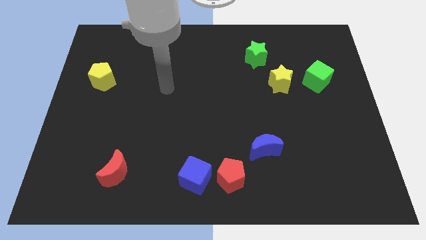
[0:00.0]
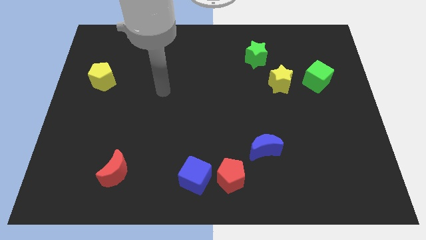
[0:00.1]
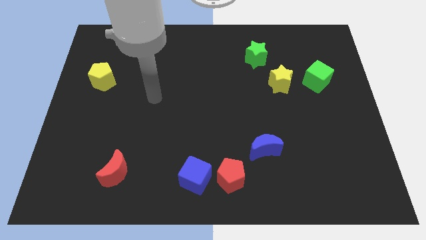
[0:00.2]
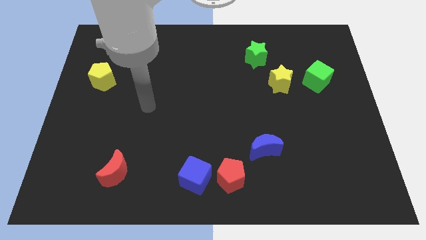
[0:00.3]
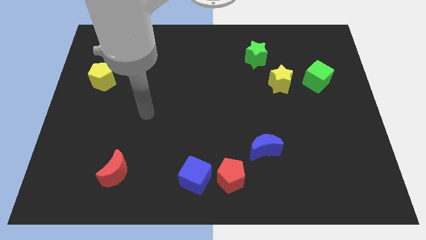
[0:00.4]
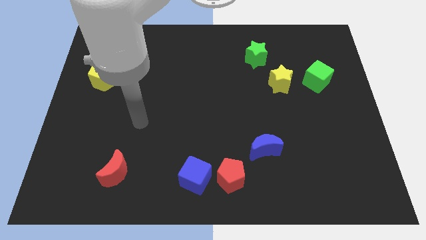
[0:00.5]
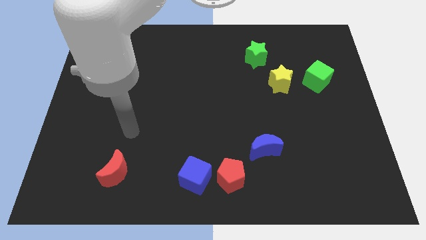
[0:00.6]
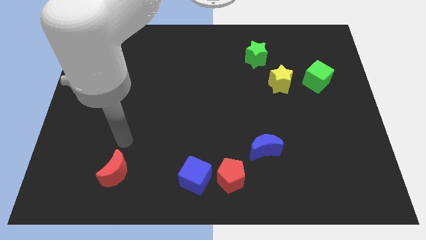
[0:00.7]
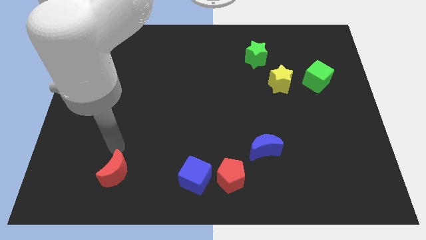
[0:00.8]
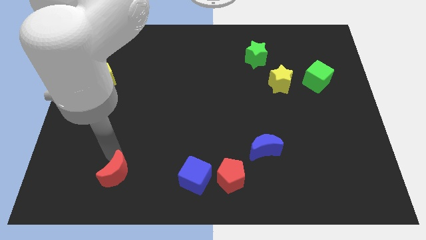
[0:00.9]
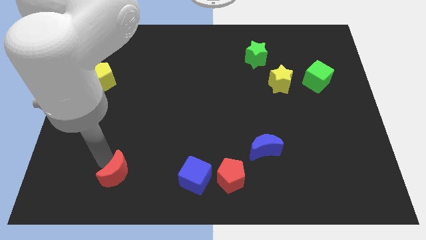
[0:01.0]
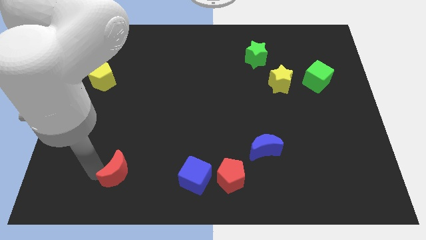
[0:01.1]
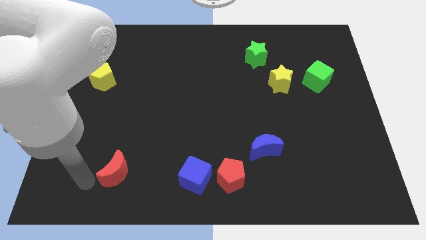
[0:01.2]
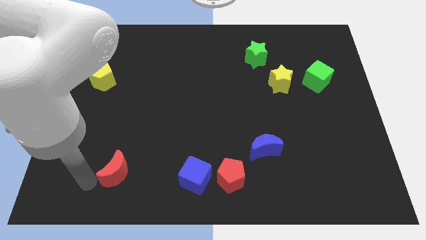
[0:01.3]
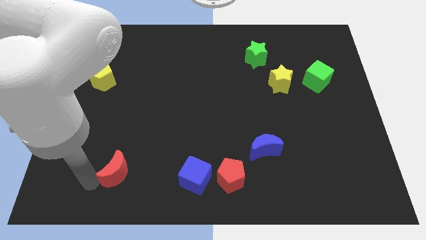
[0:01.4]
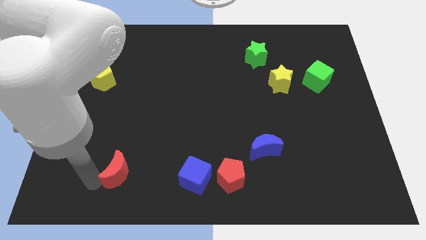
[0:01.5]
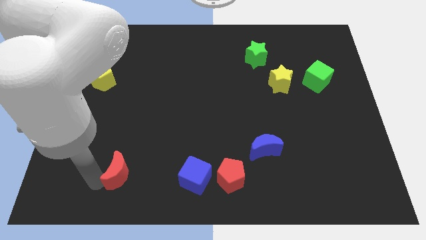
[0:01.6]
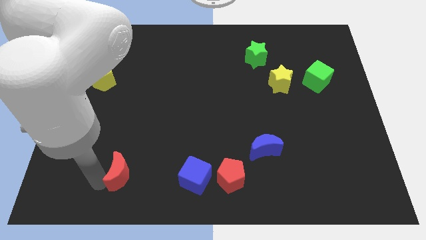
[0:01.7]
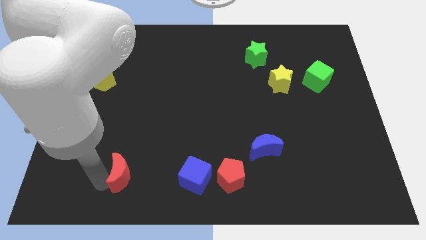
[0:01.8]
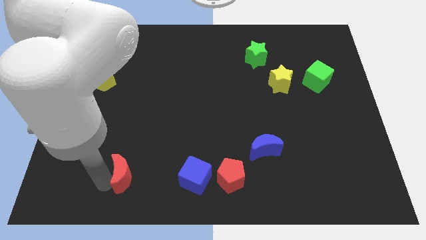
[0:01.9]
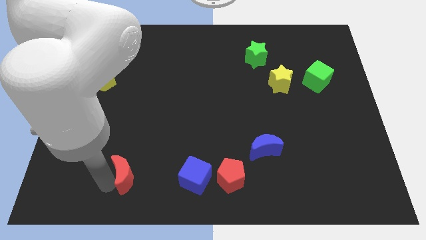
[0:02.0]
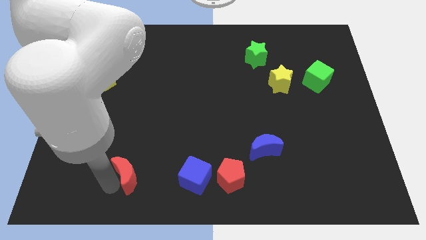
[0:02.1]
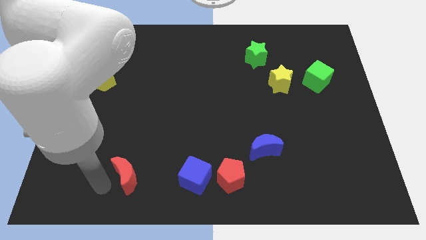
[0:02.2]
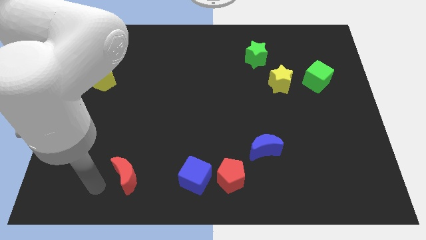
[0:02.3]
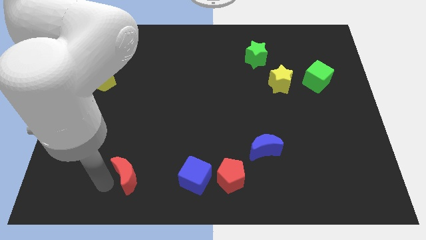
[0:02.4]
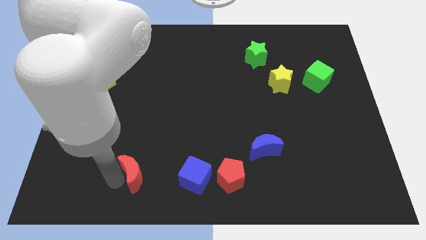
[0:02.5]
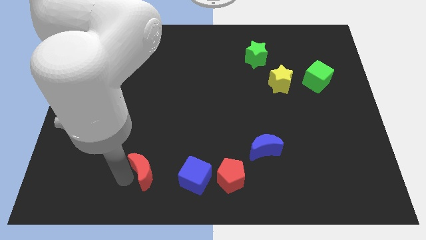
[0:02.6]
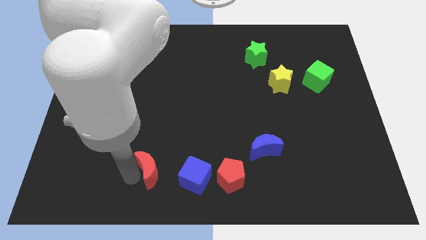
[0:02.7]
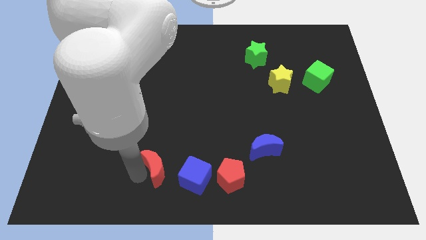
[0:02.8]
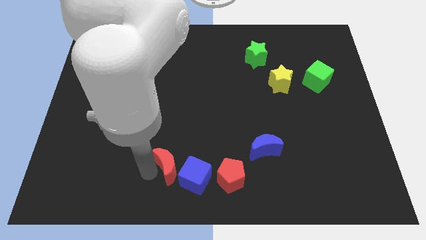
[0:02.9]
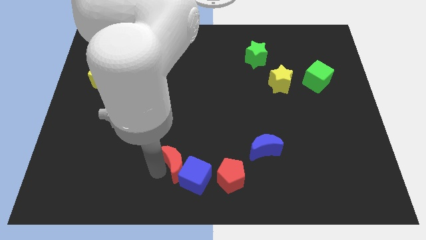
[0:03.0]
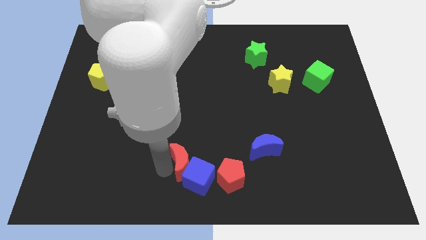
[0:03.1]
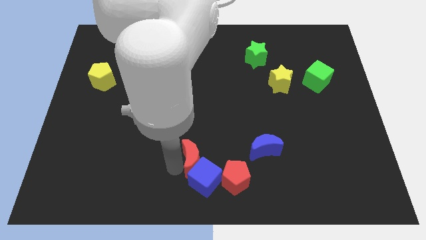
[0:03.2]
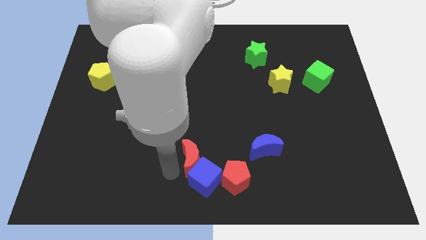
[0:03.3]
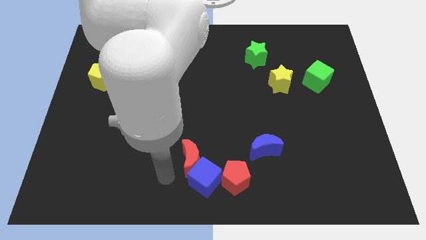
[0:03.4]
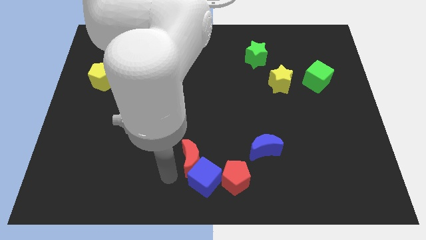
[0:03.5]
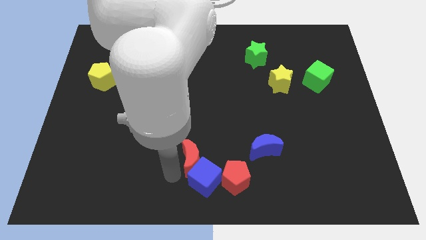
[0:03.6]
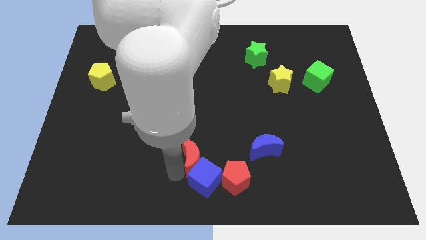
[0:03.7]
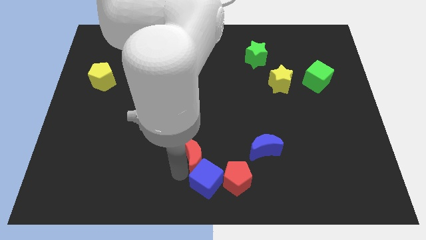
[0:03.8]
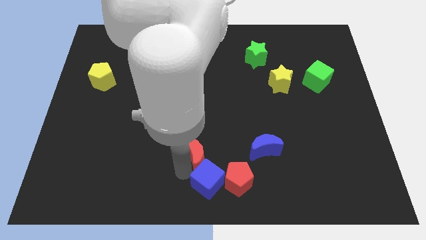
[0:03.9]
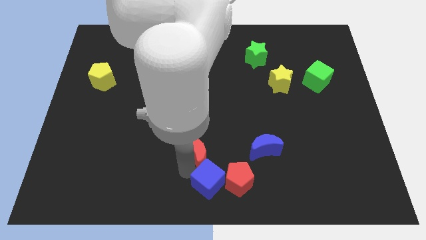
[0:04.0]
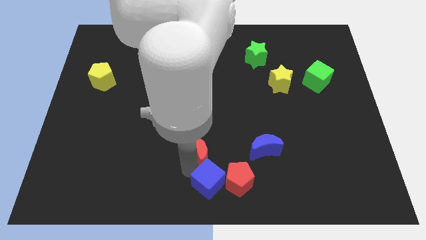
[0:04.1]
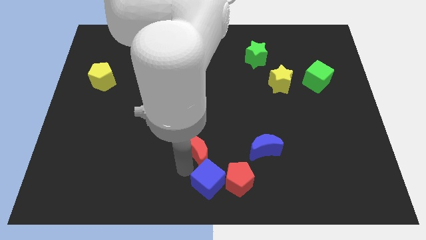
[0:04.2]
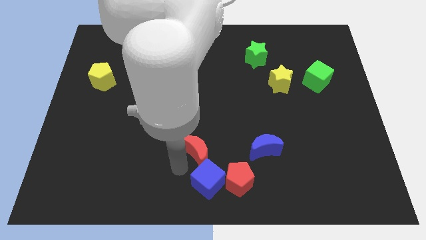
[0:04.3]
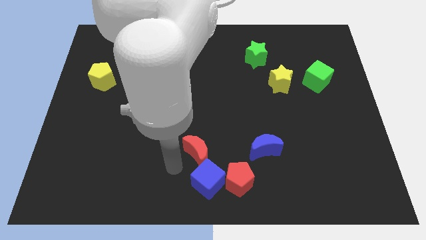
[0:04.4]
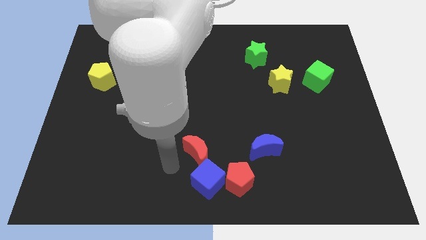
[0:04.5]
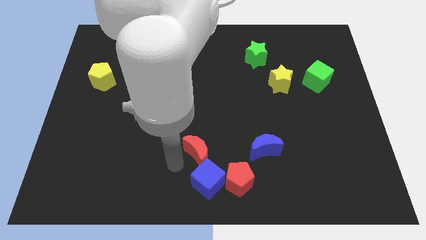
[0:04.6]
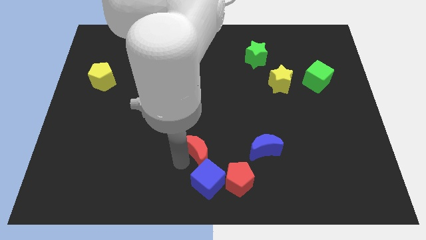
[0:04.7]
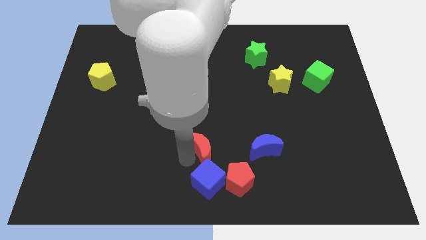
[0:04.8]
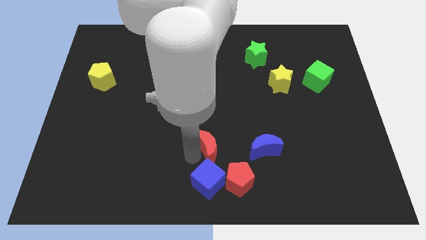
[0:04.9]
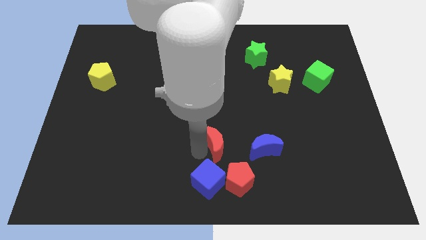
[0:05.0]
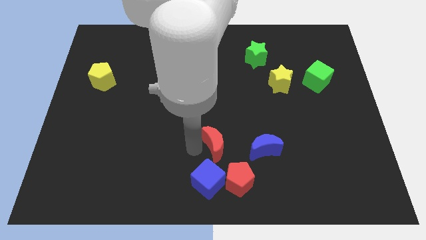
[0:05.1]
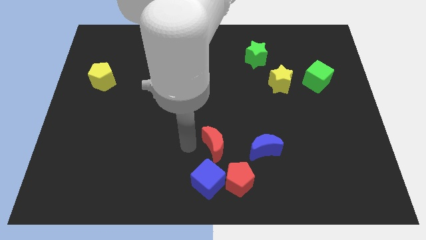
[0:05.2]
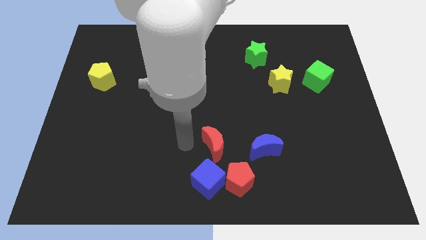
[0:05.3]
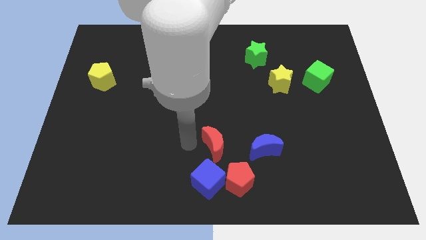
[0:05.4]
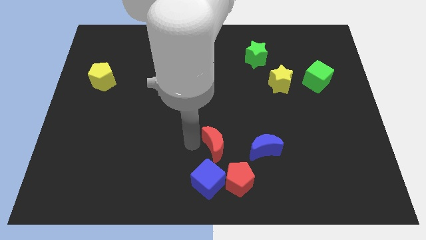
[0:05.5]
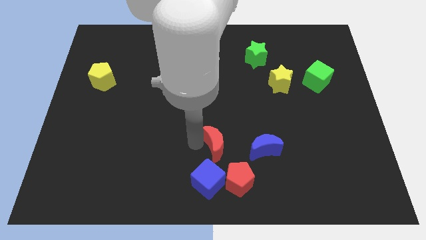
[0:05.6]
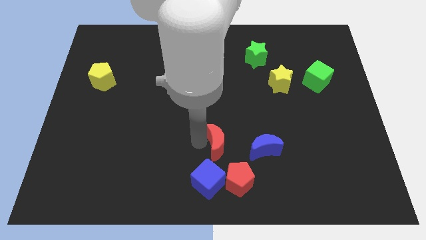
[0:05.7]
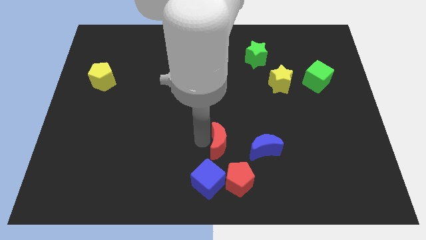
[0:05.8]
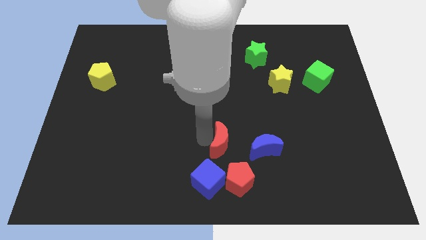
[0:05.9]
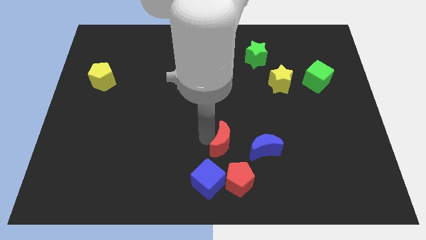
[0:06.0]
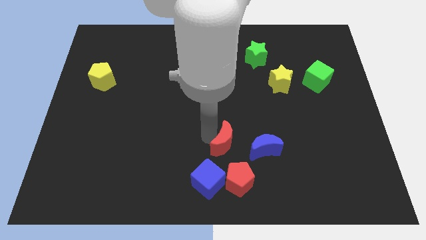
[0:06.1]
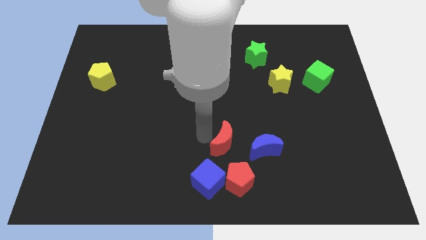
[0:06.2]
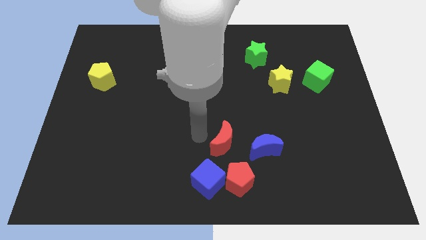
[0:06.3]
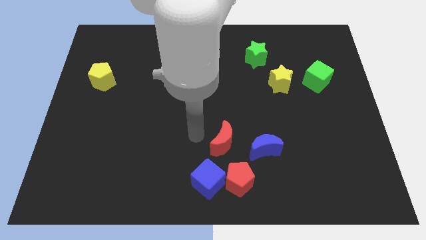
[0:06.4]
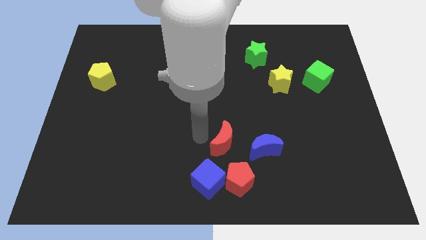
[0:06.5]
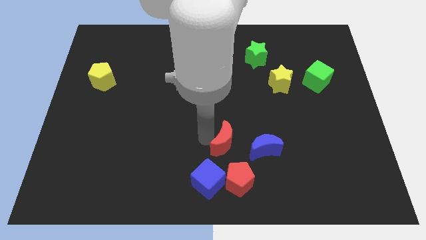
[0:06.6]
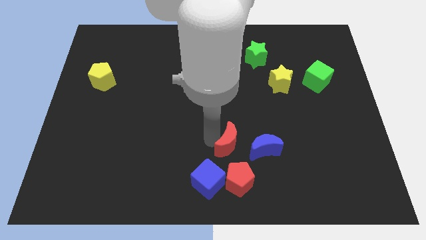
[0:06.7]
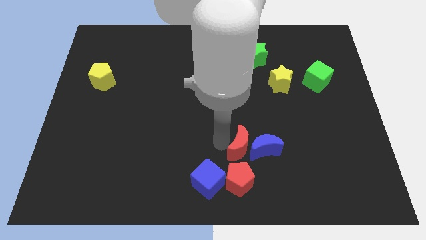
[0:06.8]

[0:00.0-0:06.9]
slide the red moon next to the blue moon

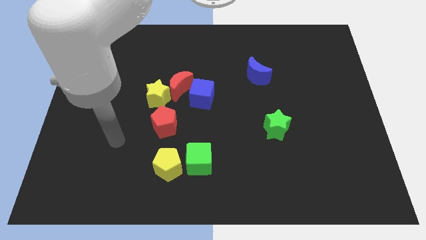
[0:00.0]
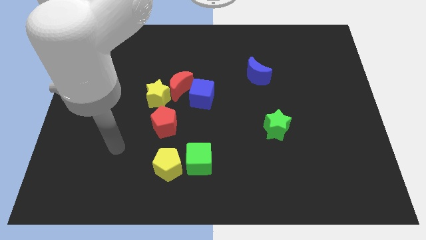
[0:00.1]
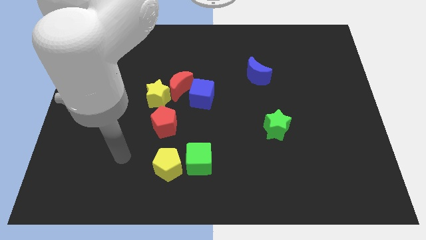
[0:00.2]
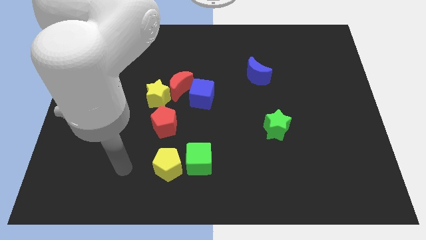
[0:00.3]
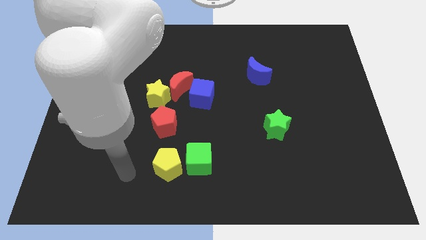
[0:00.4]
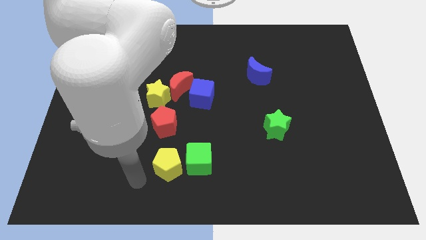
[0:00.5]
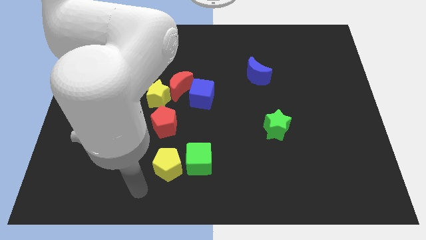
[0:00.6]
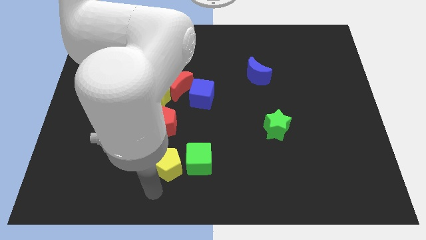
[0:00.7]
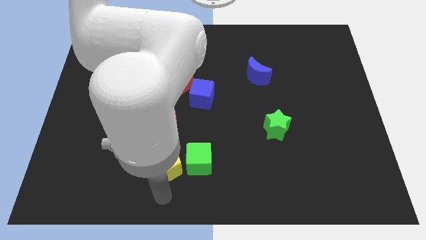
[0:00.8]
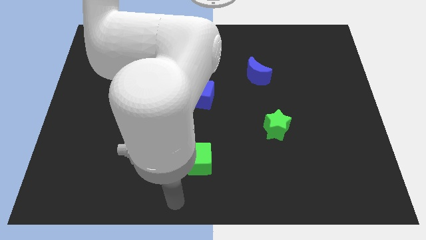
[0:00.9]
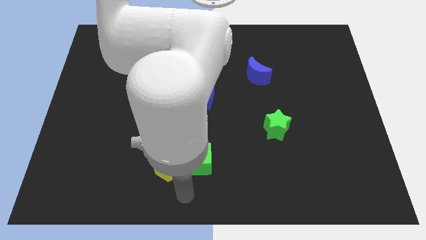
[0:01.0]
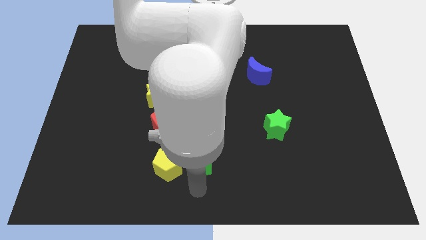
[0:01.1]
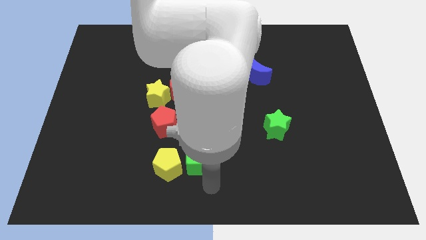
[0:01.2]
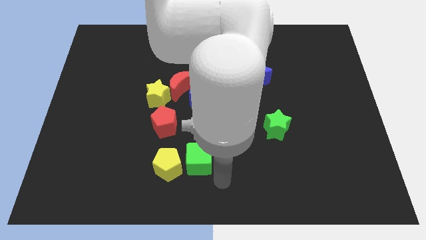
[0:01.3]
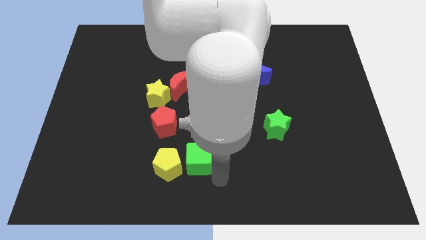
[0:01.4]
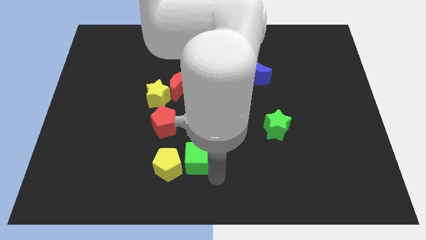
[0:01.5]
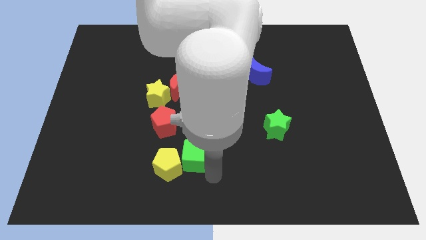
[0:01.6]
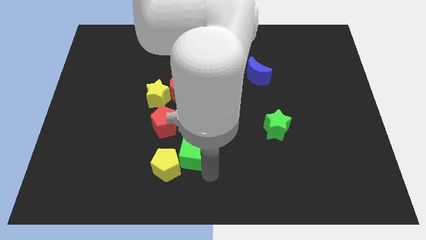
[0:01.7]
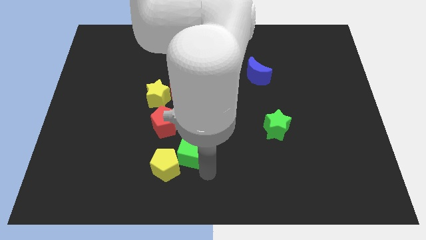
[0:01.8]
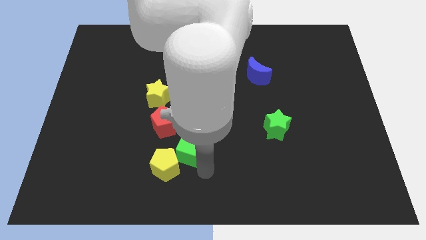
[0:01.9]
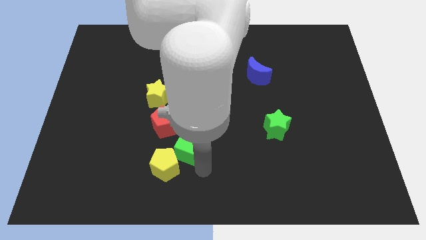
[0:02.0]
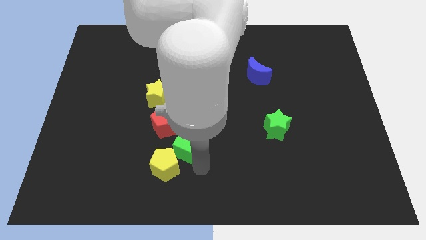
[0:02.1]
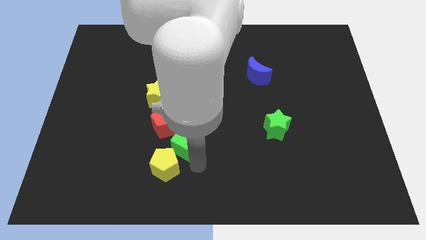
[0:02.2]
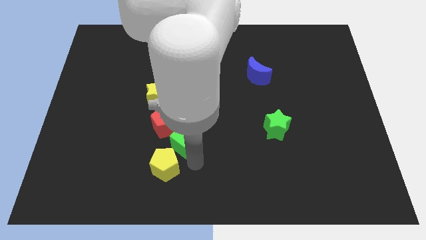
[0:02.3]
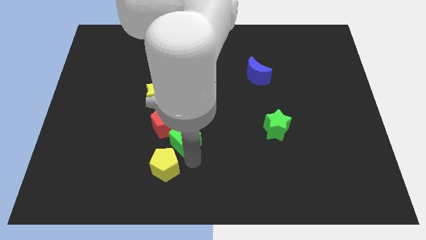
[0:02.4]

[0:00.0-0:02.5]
slide the green cube next to the red pentagon
